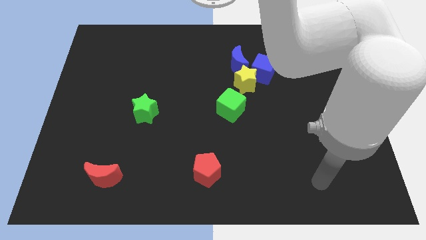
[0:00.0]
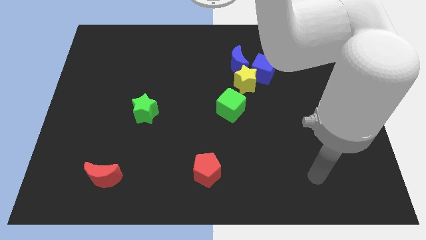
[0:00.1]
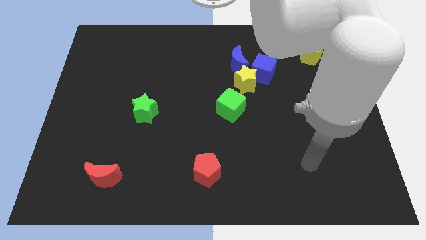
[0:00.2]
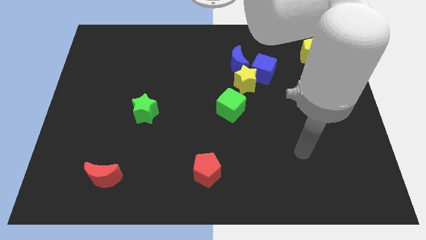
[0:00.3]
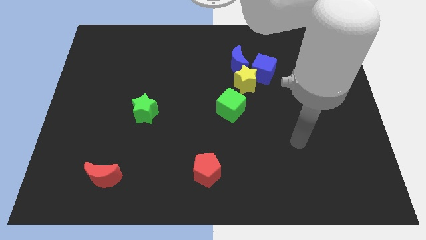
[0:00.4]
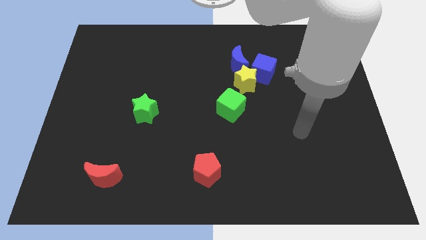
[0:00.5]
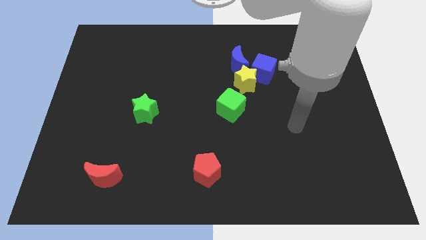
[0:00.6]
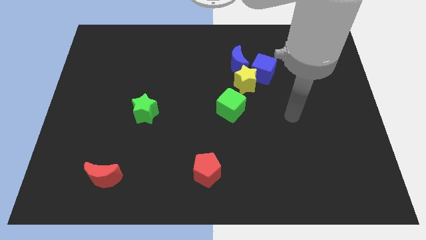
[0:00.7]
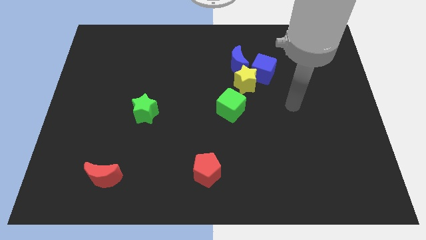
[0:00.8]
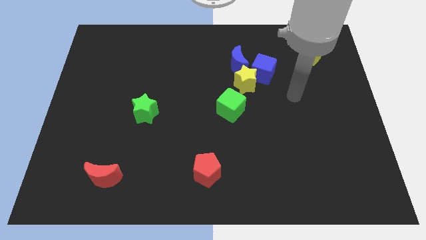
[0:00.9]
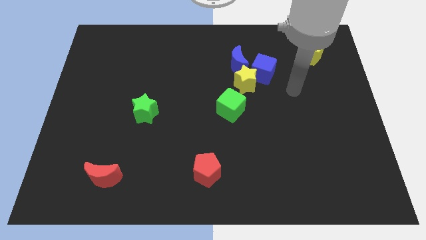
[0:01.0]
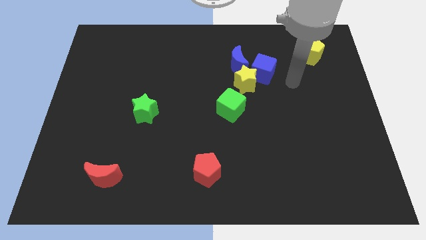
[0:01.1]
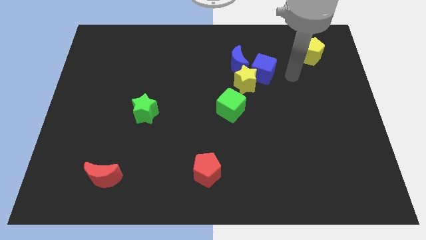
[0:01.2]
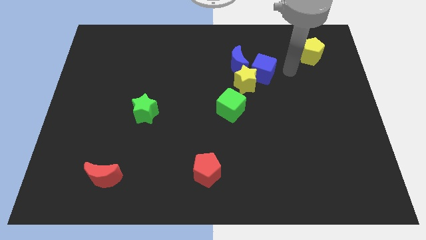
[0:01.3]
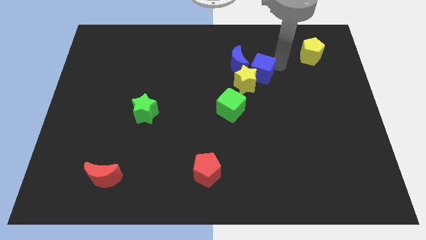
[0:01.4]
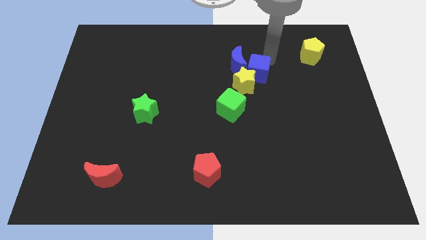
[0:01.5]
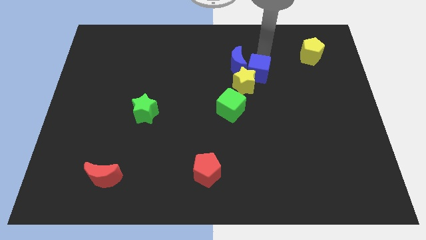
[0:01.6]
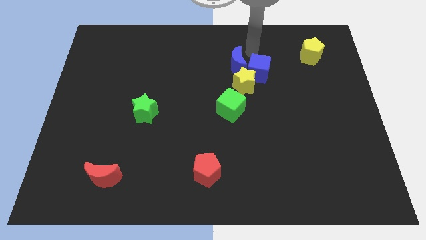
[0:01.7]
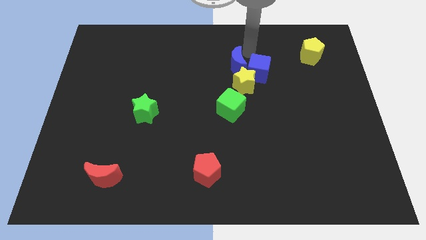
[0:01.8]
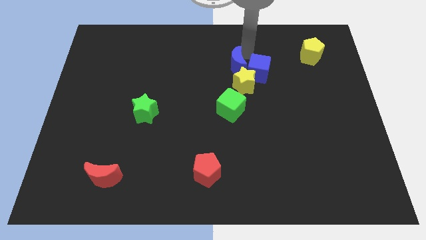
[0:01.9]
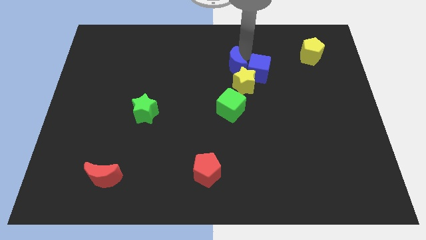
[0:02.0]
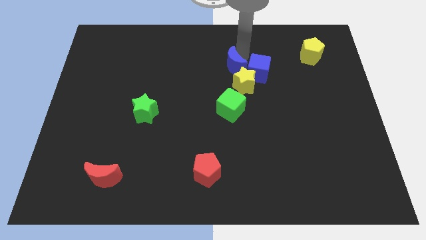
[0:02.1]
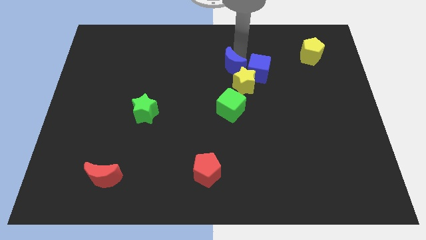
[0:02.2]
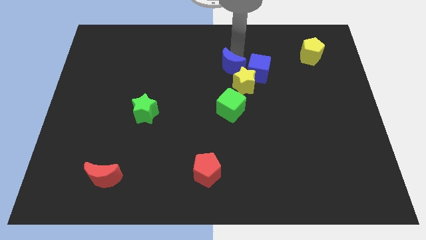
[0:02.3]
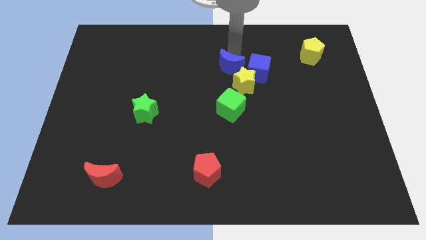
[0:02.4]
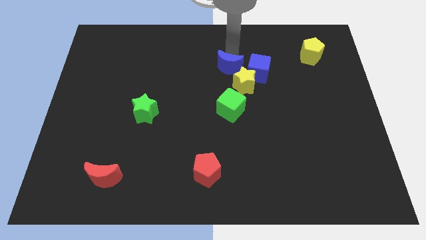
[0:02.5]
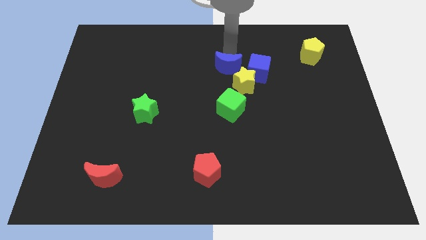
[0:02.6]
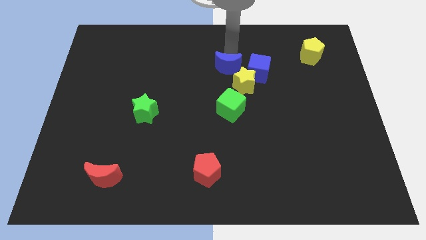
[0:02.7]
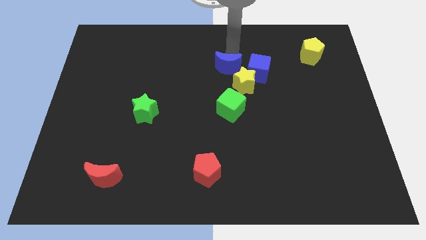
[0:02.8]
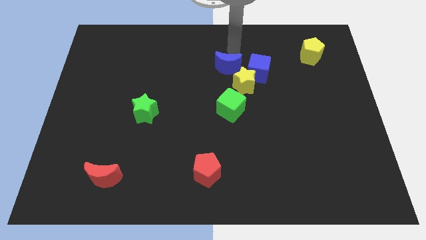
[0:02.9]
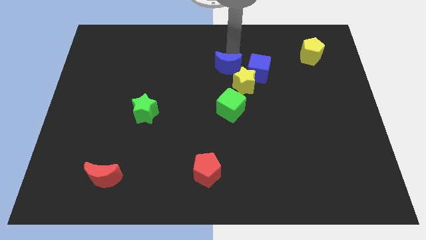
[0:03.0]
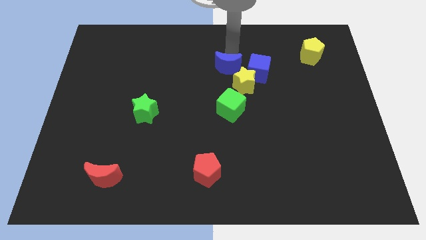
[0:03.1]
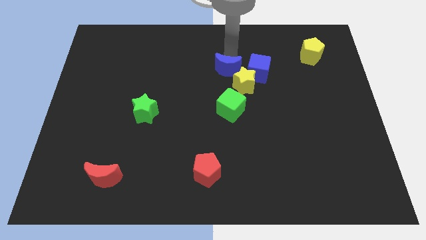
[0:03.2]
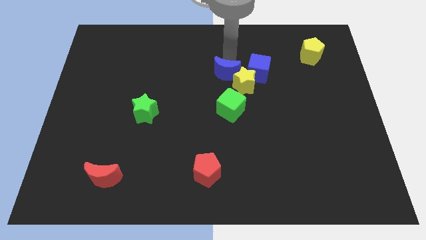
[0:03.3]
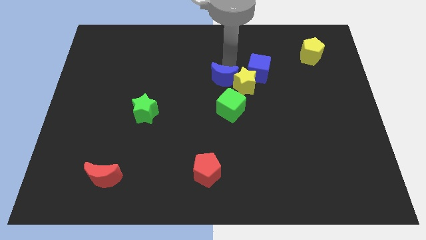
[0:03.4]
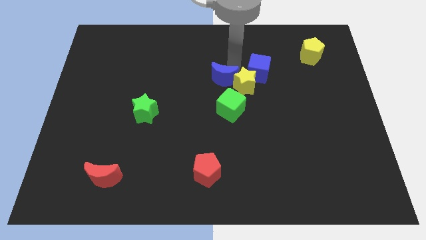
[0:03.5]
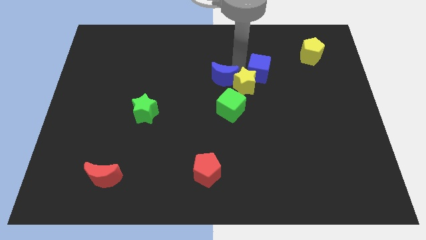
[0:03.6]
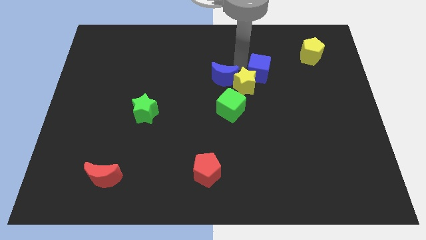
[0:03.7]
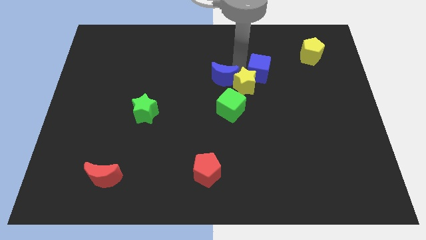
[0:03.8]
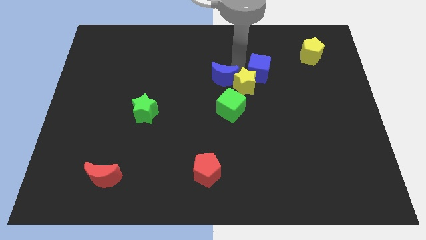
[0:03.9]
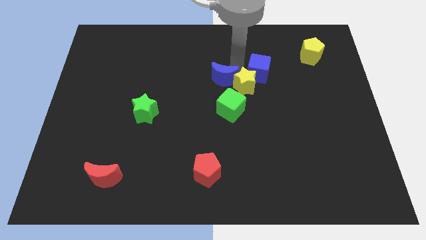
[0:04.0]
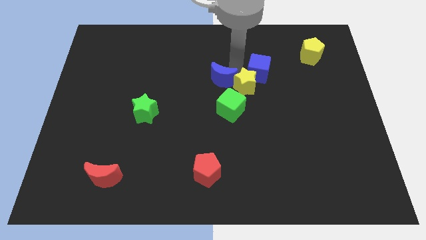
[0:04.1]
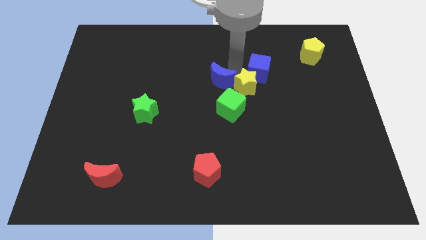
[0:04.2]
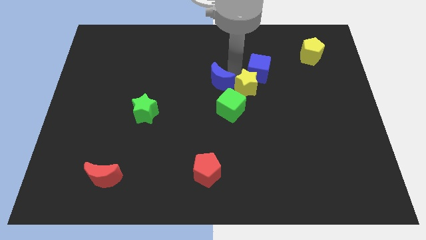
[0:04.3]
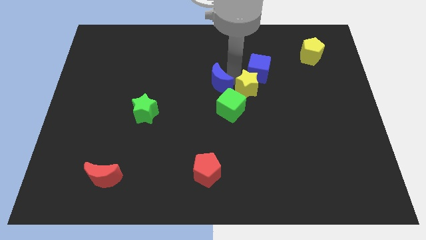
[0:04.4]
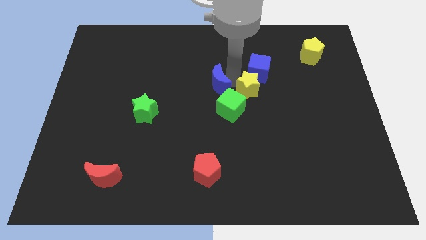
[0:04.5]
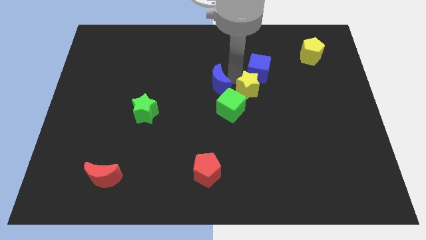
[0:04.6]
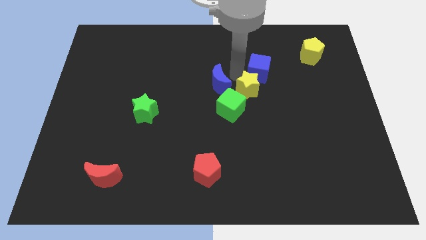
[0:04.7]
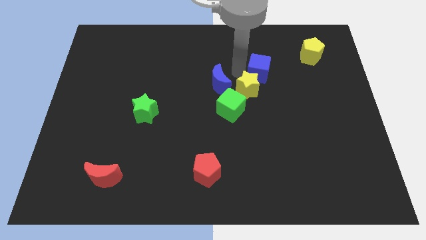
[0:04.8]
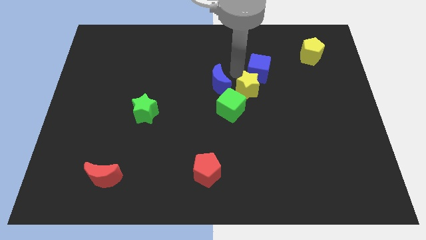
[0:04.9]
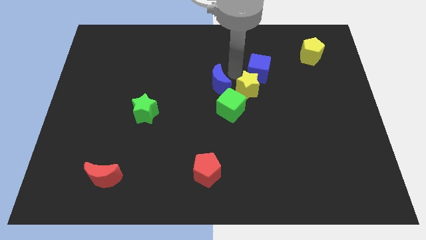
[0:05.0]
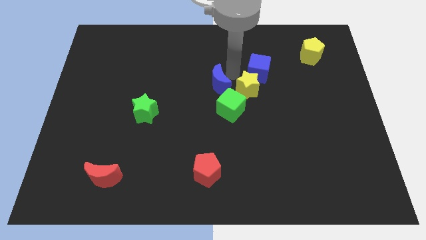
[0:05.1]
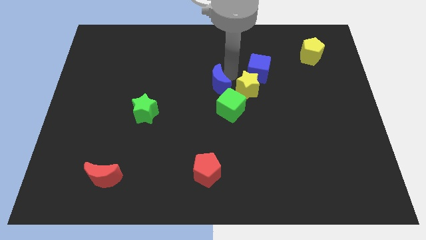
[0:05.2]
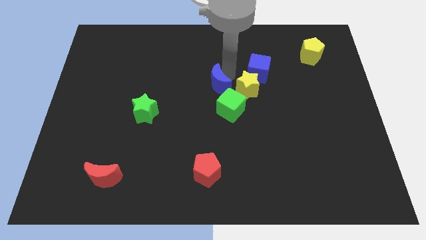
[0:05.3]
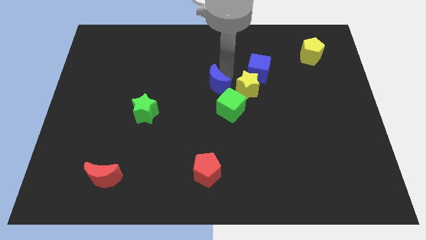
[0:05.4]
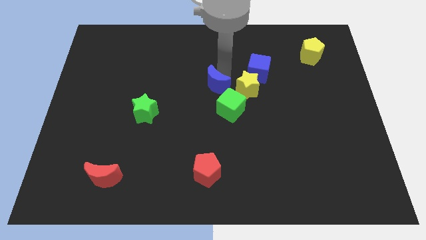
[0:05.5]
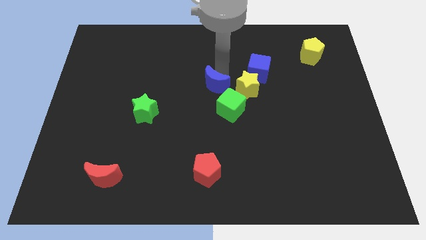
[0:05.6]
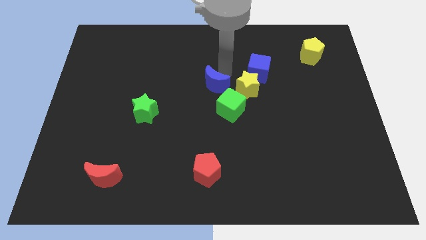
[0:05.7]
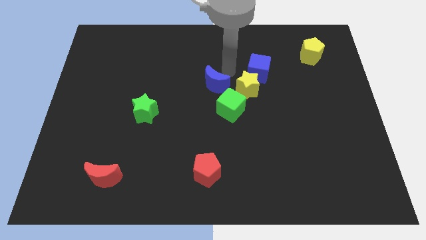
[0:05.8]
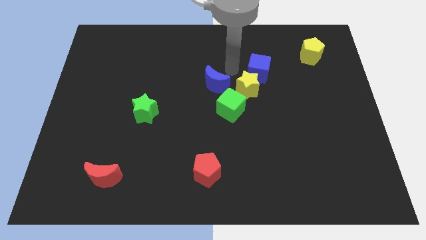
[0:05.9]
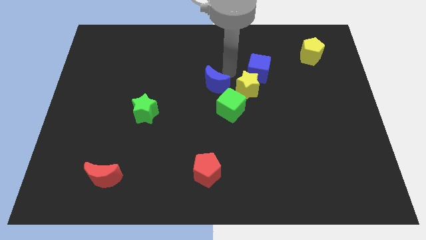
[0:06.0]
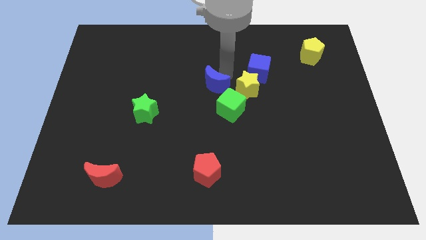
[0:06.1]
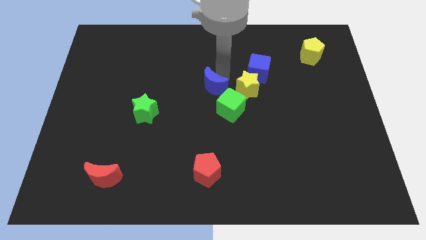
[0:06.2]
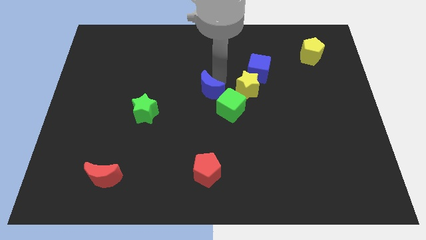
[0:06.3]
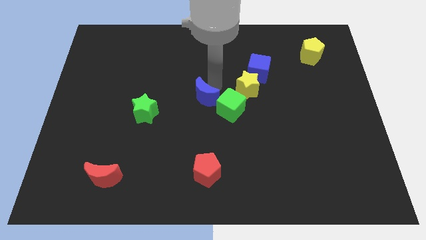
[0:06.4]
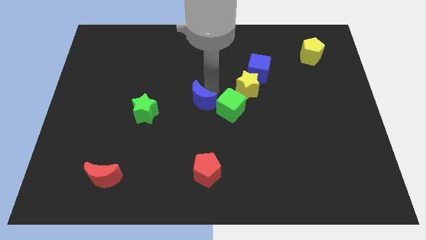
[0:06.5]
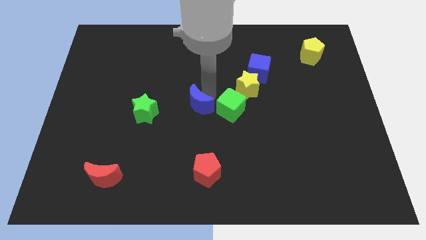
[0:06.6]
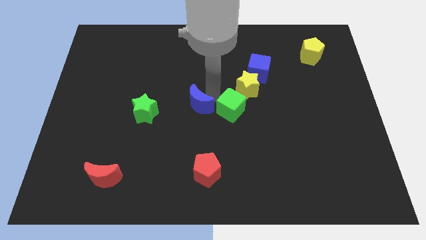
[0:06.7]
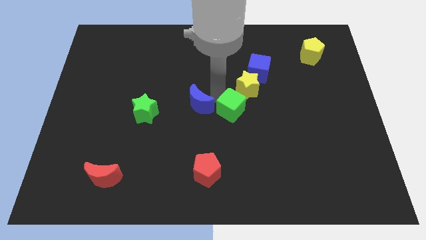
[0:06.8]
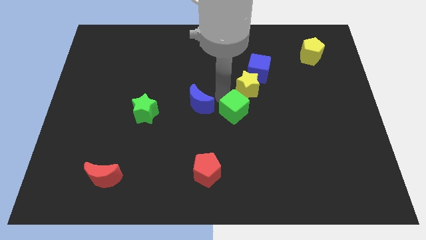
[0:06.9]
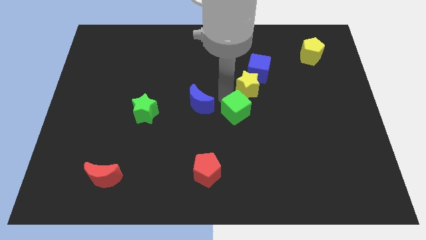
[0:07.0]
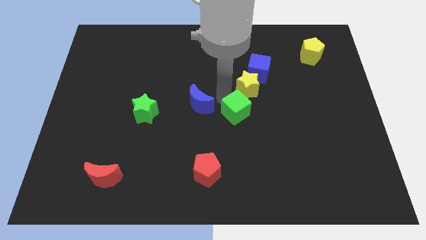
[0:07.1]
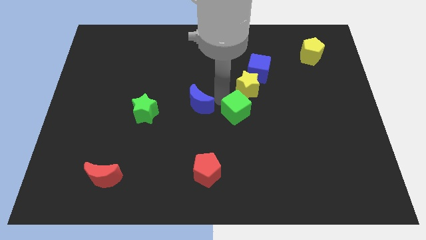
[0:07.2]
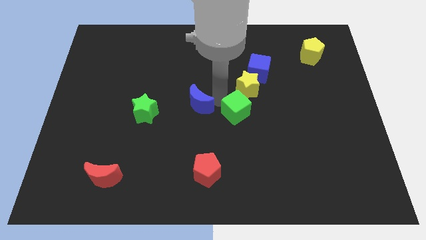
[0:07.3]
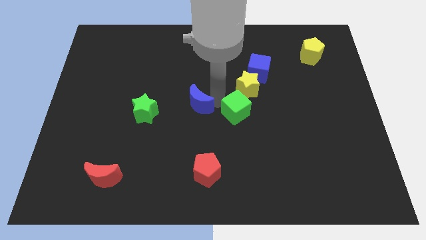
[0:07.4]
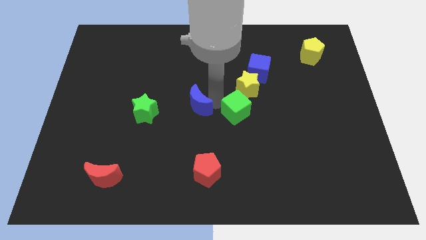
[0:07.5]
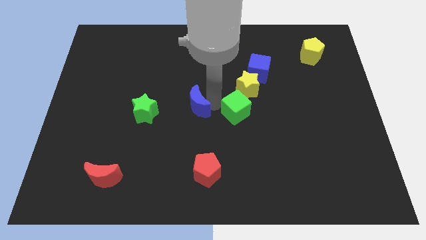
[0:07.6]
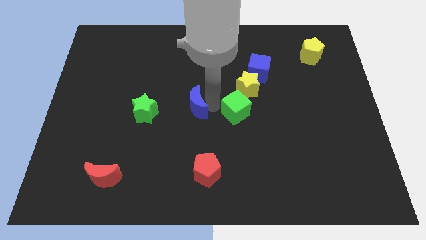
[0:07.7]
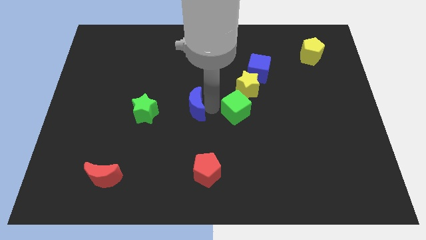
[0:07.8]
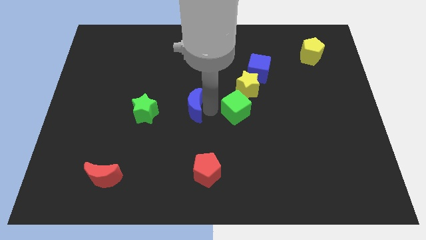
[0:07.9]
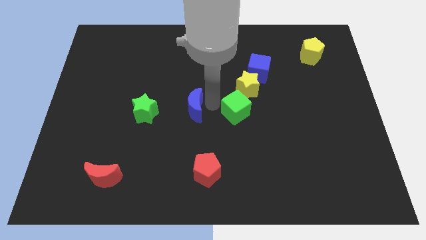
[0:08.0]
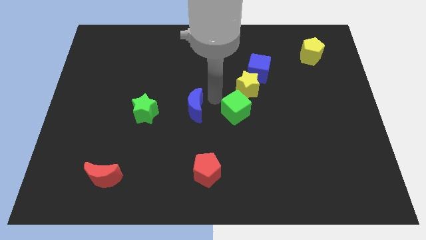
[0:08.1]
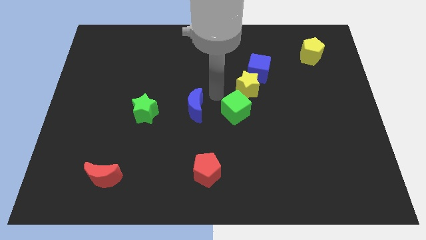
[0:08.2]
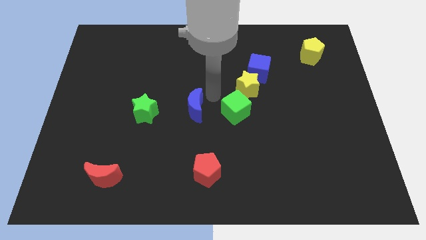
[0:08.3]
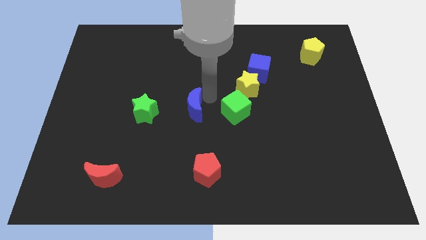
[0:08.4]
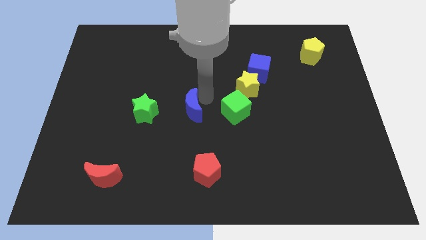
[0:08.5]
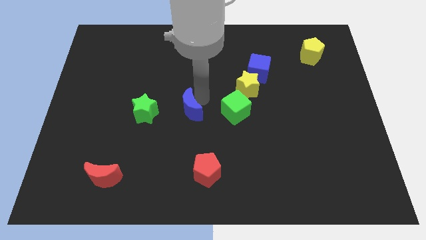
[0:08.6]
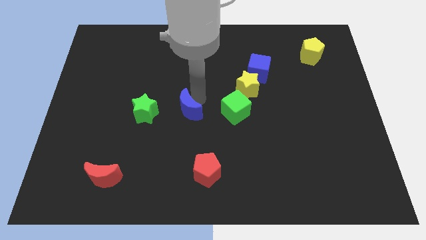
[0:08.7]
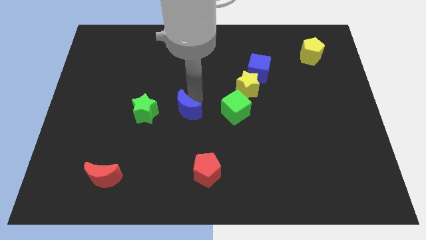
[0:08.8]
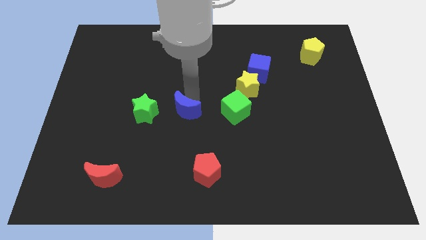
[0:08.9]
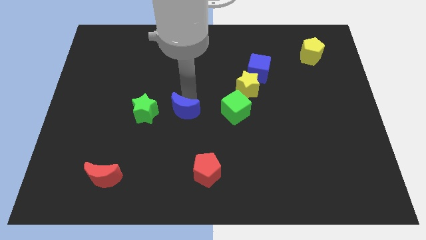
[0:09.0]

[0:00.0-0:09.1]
push the blue moon down and to the left
